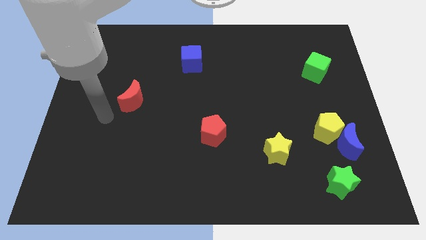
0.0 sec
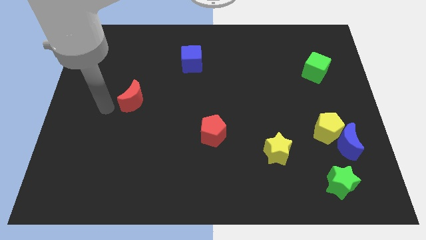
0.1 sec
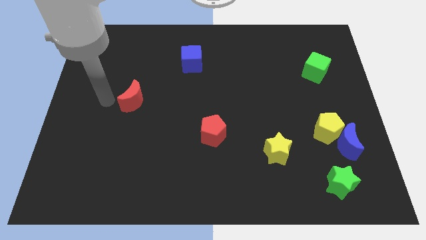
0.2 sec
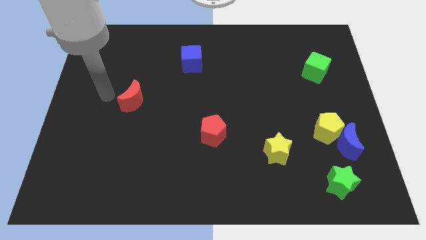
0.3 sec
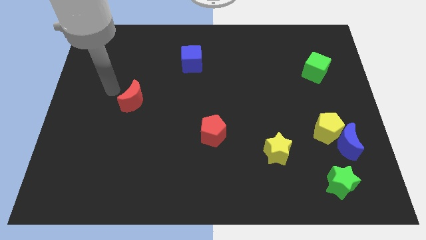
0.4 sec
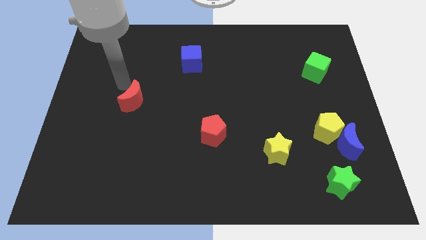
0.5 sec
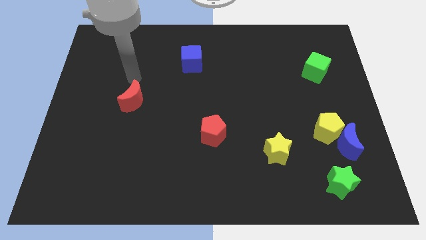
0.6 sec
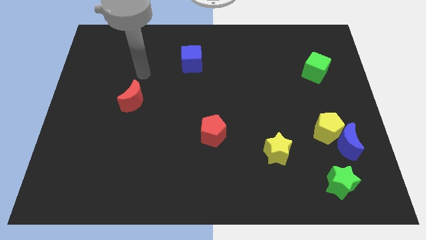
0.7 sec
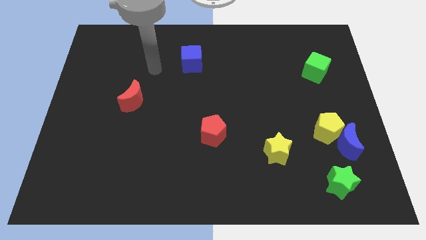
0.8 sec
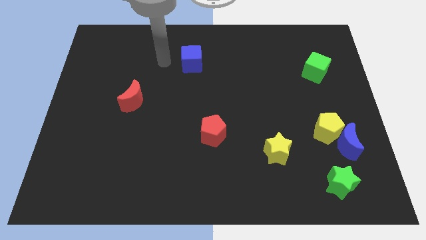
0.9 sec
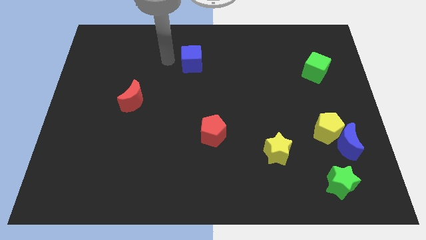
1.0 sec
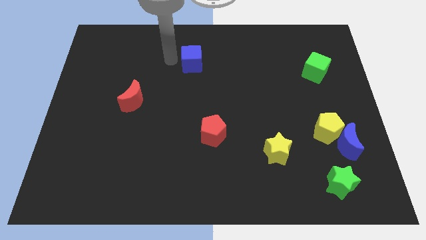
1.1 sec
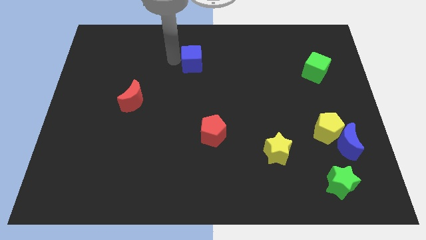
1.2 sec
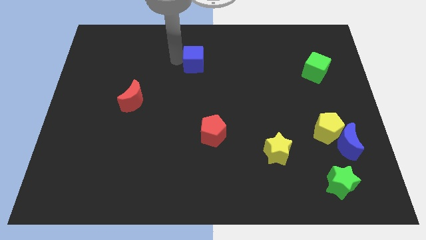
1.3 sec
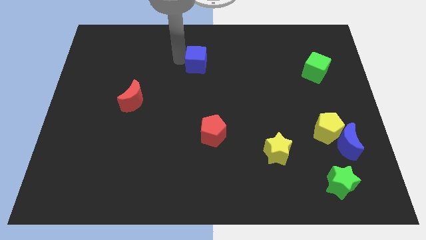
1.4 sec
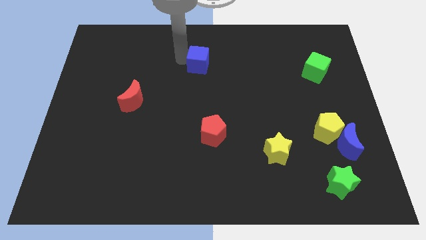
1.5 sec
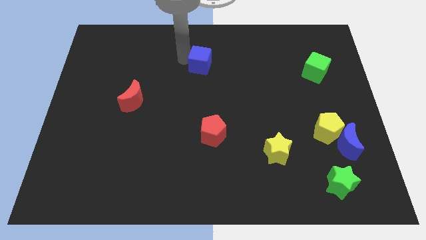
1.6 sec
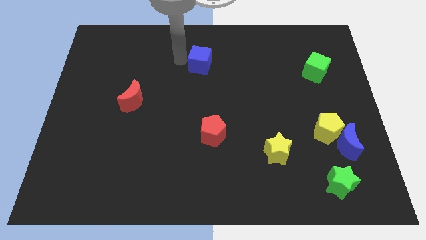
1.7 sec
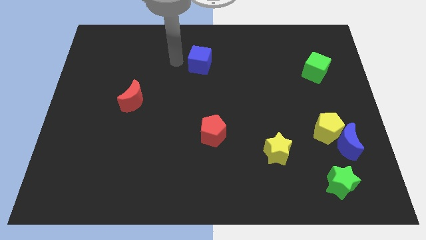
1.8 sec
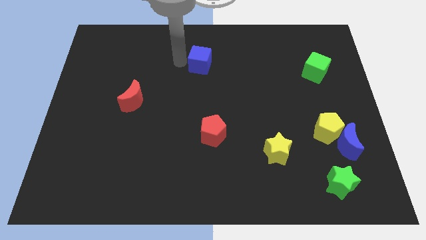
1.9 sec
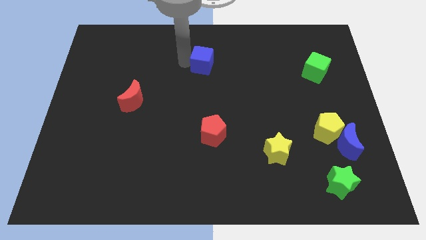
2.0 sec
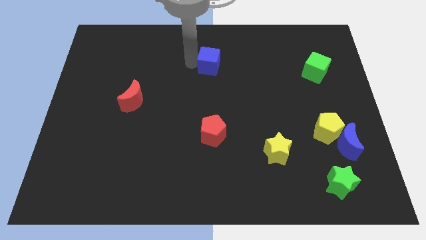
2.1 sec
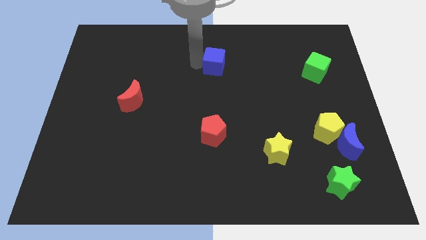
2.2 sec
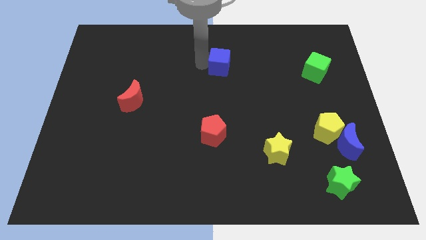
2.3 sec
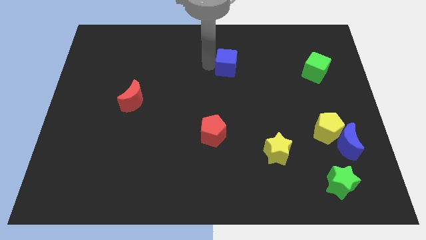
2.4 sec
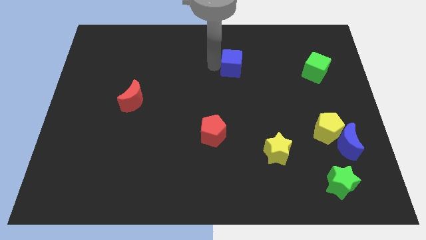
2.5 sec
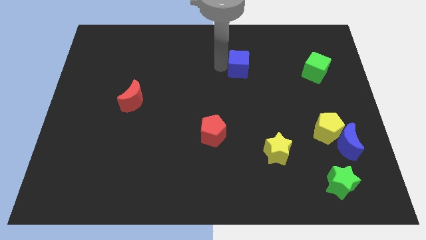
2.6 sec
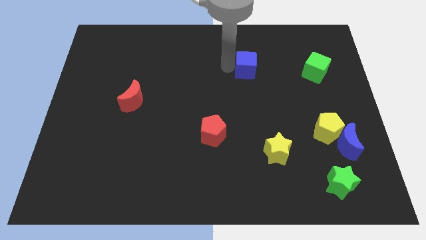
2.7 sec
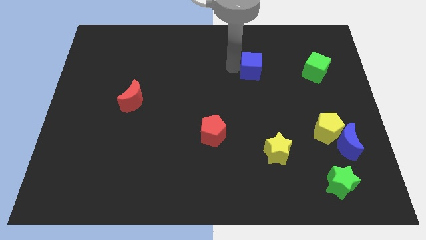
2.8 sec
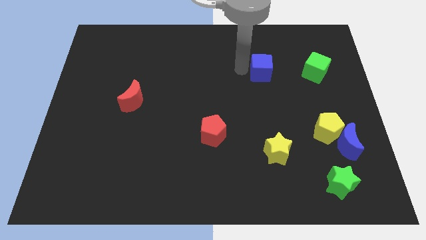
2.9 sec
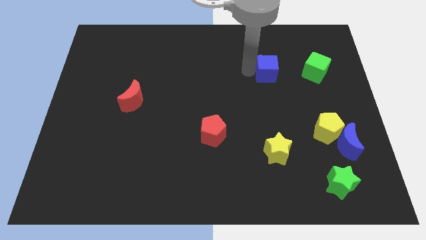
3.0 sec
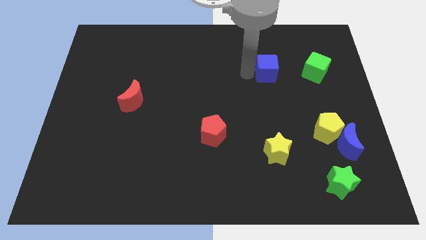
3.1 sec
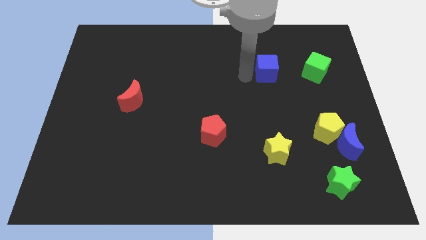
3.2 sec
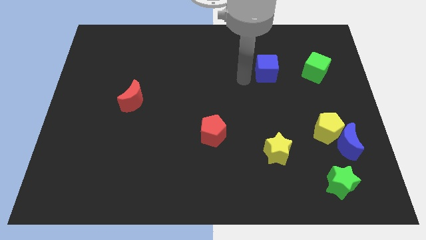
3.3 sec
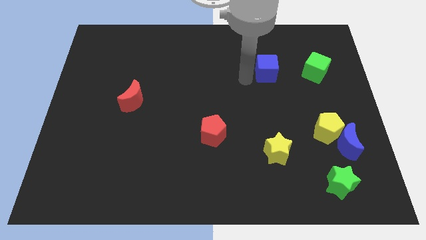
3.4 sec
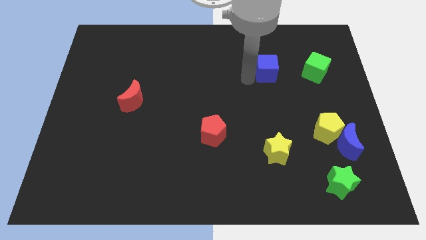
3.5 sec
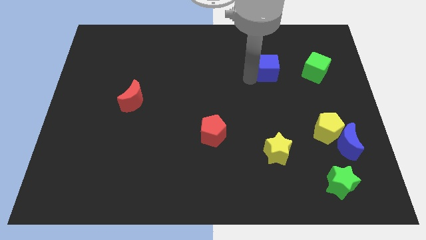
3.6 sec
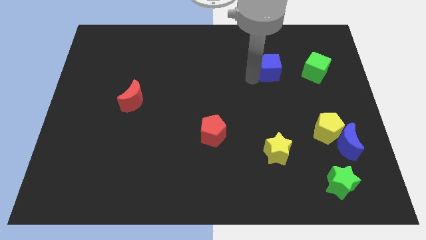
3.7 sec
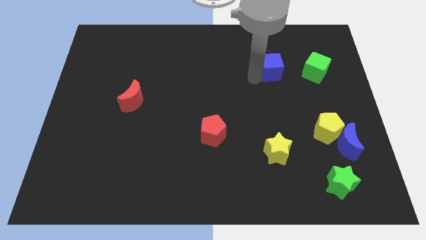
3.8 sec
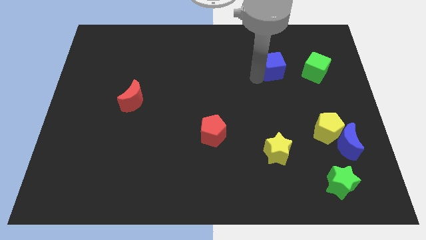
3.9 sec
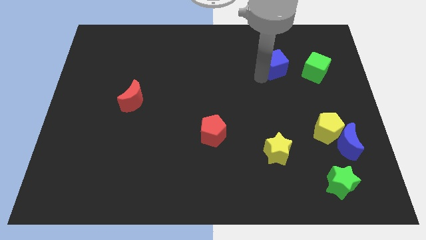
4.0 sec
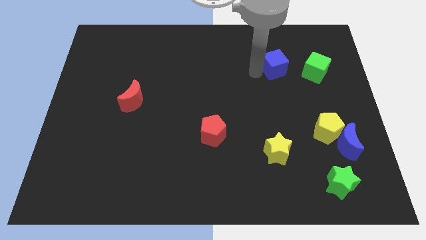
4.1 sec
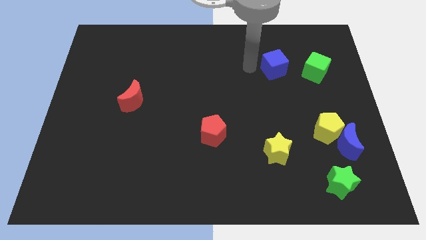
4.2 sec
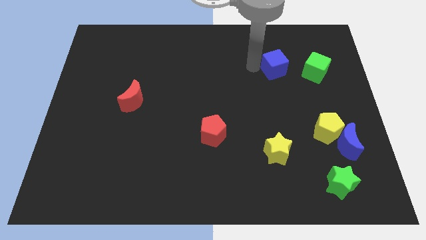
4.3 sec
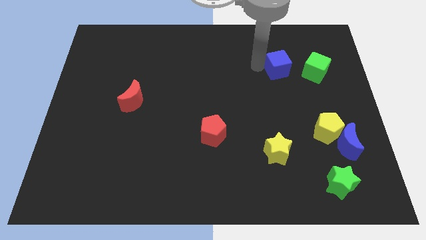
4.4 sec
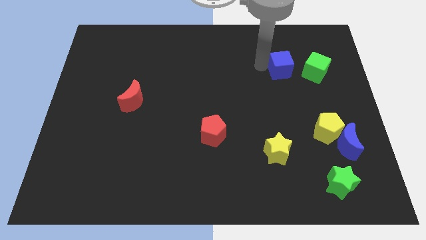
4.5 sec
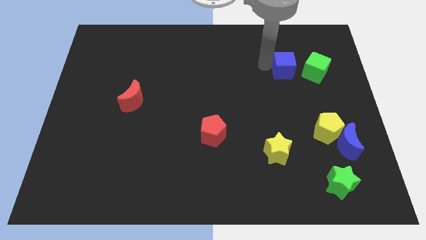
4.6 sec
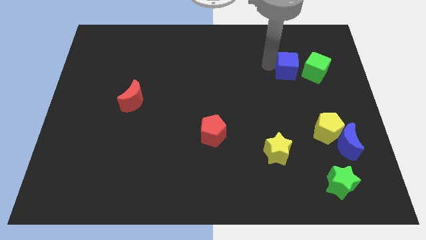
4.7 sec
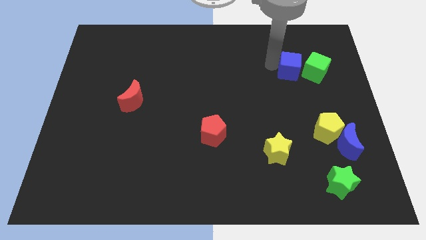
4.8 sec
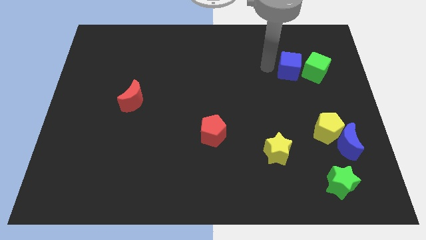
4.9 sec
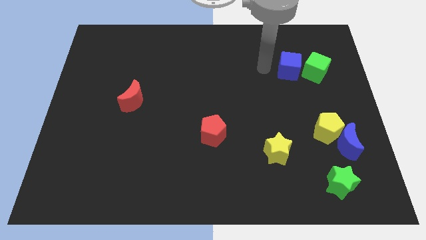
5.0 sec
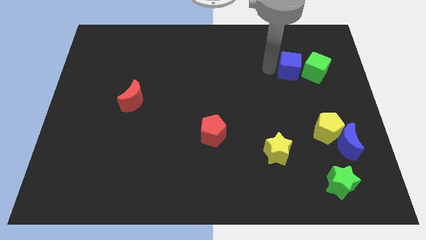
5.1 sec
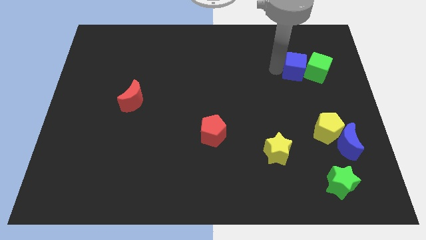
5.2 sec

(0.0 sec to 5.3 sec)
slide the blue cube towards the green cube

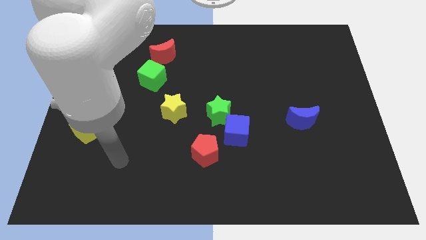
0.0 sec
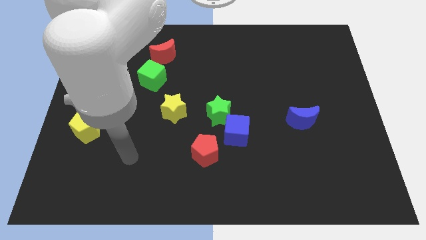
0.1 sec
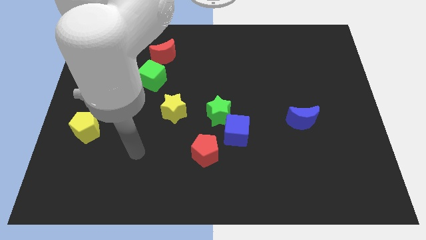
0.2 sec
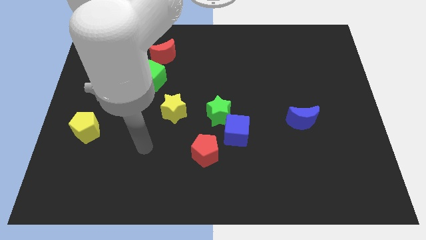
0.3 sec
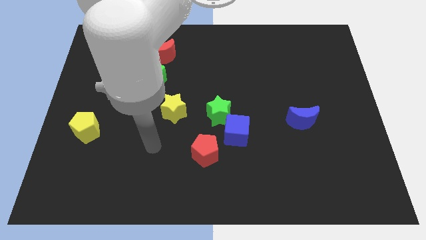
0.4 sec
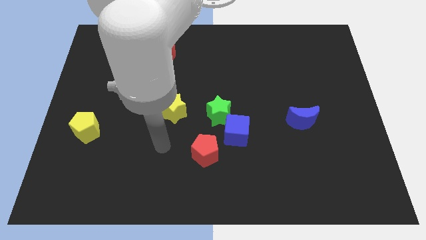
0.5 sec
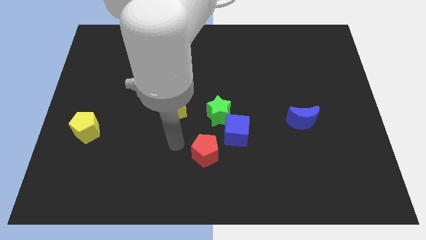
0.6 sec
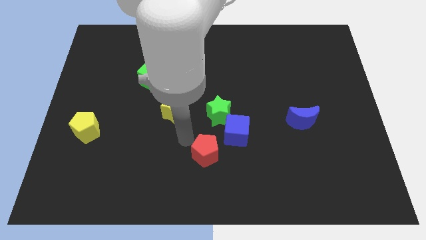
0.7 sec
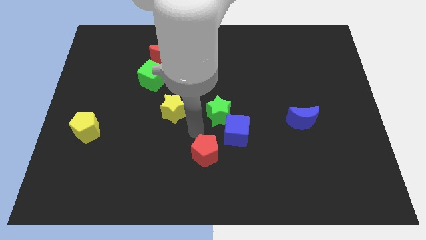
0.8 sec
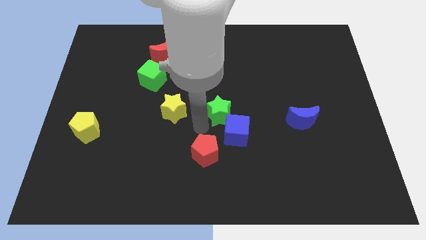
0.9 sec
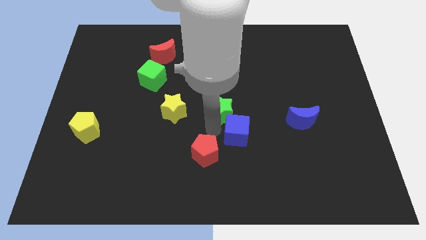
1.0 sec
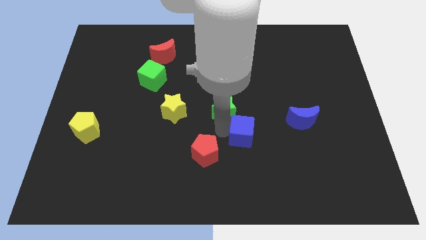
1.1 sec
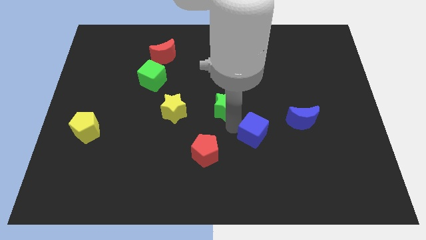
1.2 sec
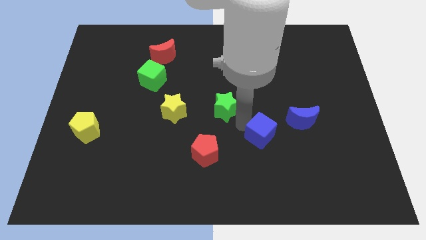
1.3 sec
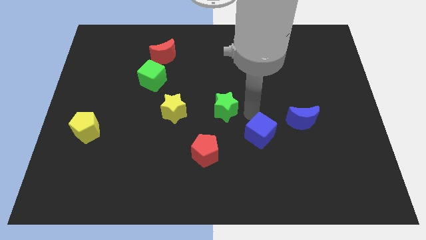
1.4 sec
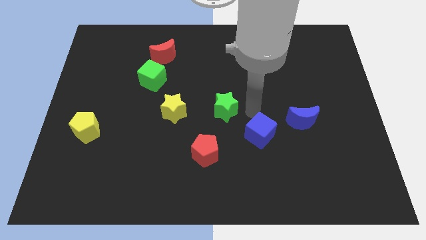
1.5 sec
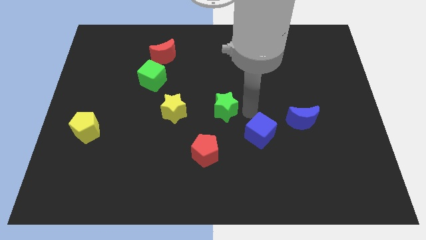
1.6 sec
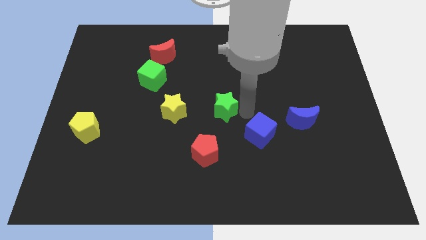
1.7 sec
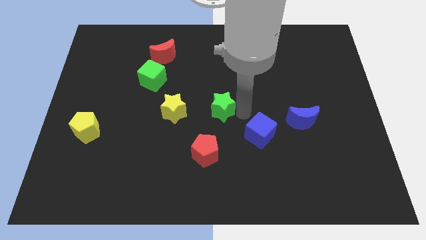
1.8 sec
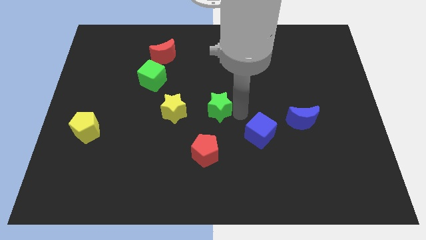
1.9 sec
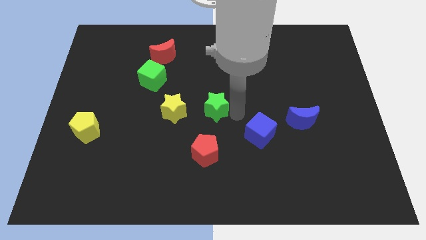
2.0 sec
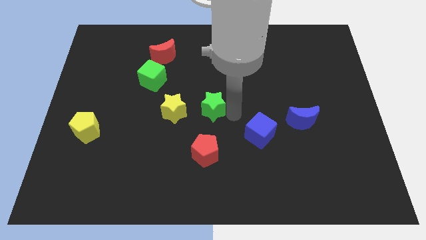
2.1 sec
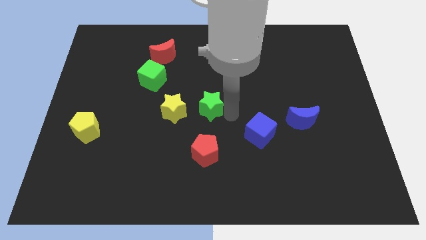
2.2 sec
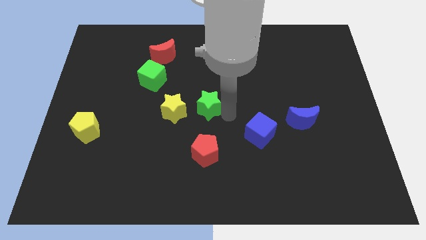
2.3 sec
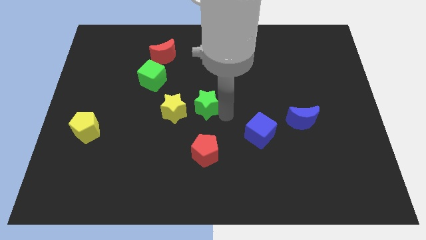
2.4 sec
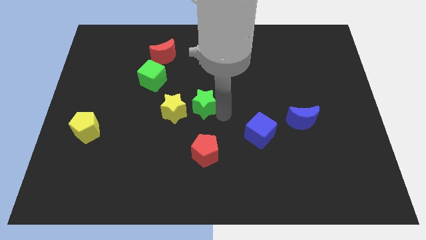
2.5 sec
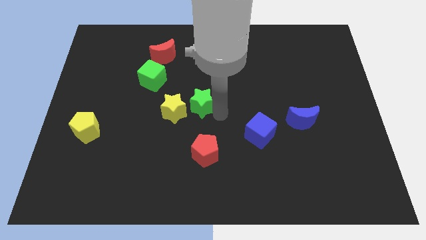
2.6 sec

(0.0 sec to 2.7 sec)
push the green star close to the yellow star

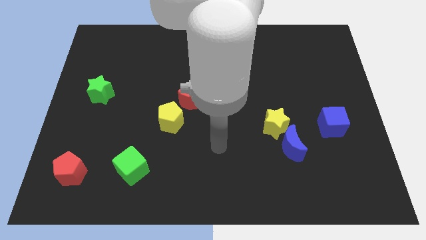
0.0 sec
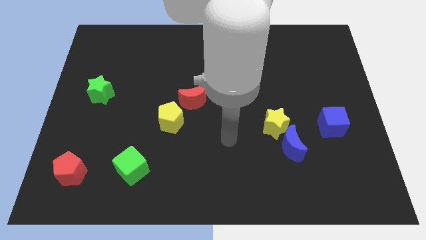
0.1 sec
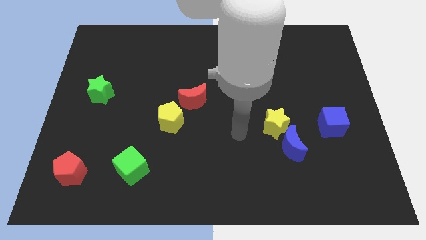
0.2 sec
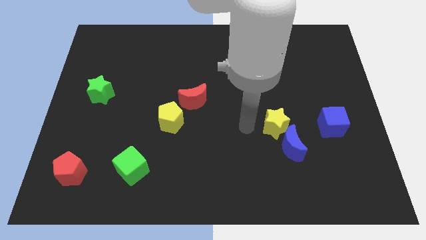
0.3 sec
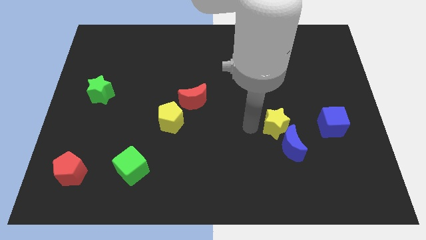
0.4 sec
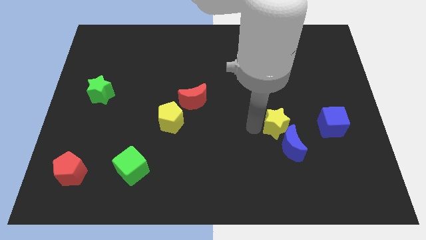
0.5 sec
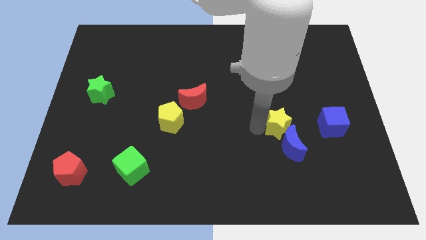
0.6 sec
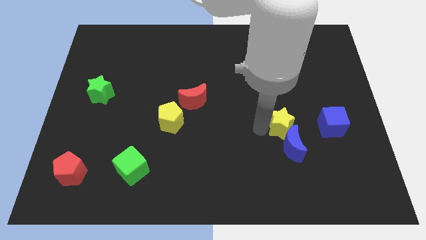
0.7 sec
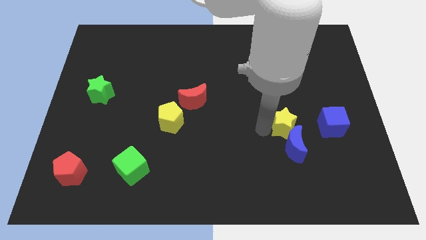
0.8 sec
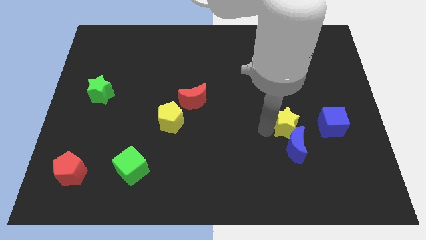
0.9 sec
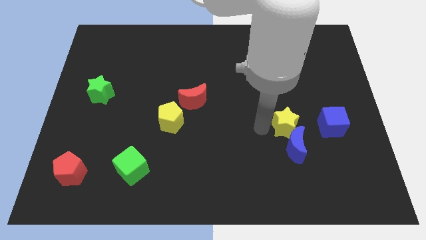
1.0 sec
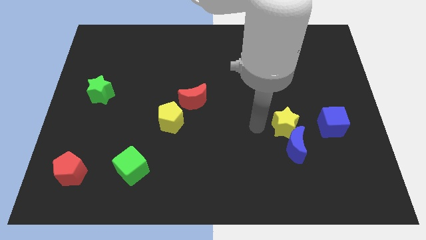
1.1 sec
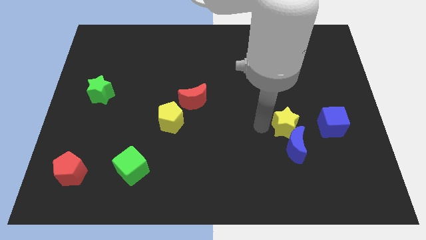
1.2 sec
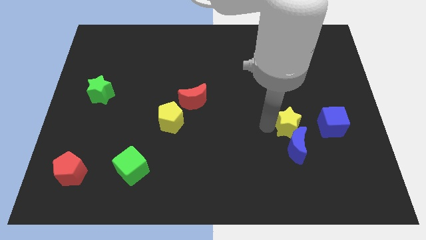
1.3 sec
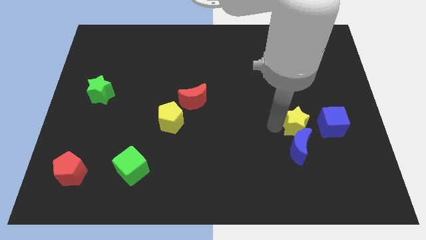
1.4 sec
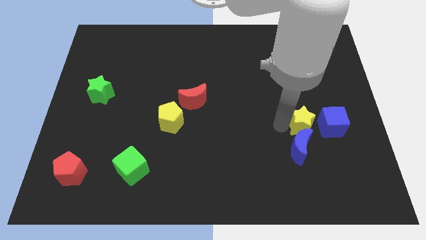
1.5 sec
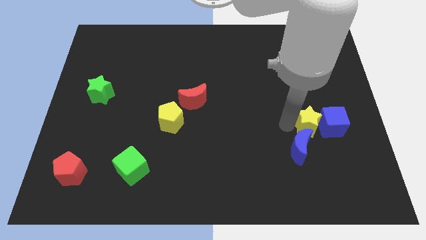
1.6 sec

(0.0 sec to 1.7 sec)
move the yellow star close to the blue cube
